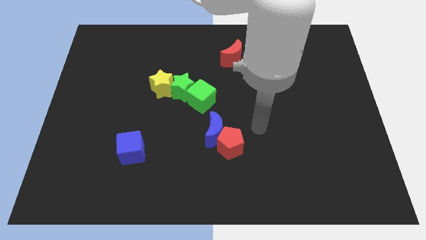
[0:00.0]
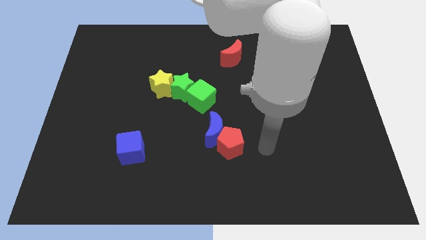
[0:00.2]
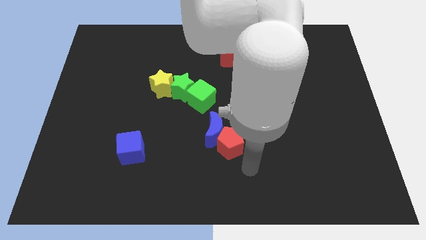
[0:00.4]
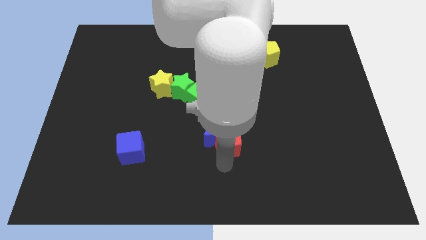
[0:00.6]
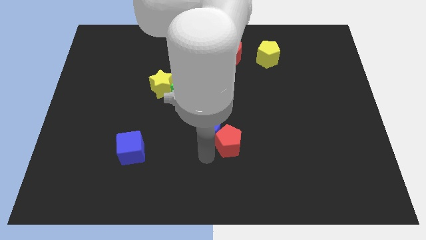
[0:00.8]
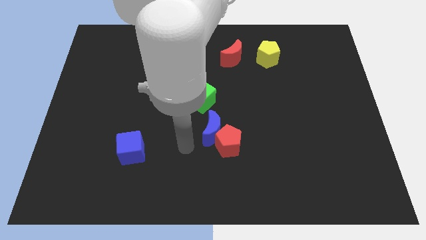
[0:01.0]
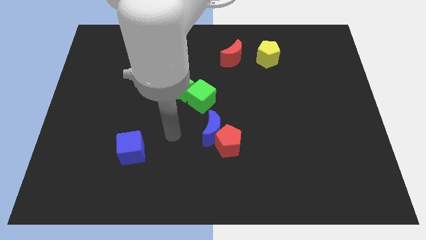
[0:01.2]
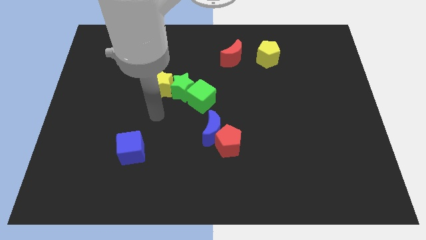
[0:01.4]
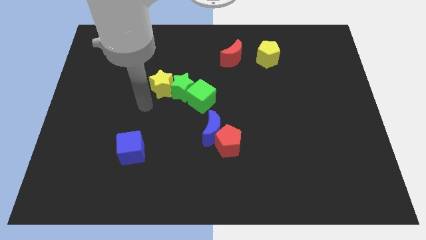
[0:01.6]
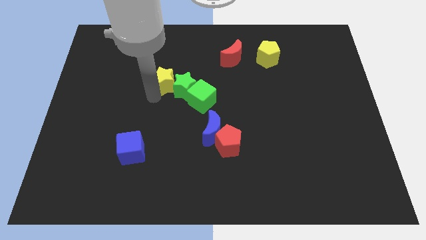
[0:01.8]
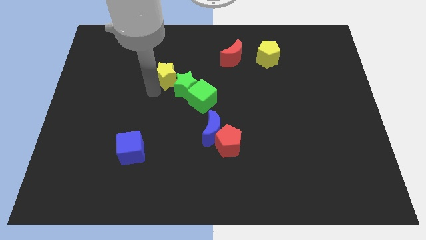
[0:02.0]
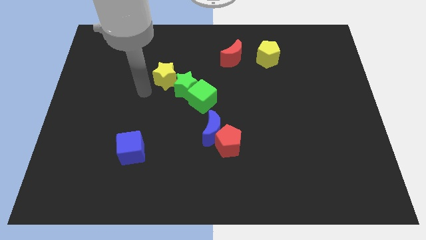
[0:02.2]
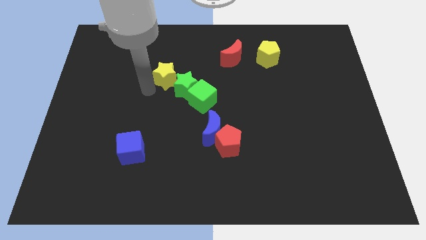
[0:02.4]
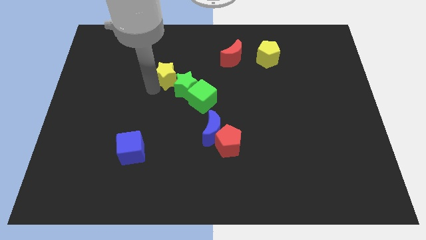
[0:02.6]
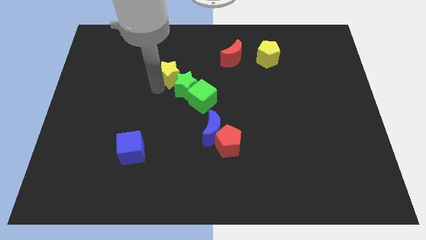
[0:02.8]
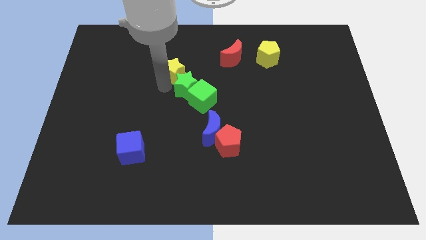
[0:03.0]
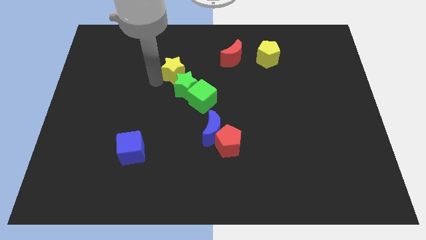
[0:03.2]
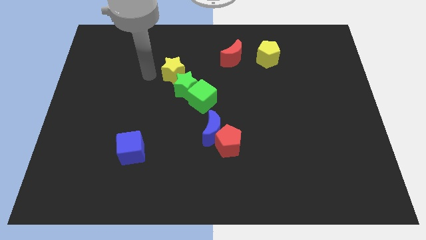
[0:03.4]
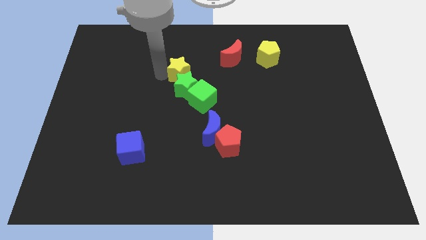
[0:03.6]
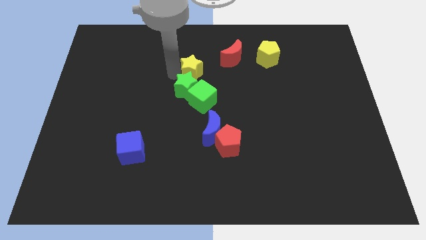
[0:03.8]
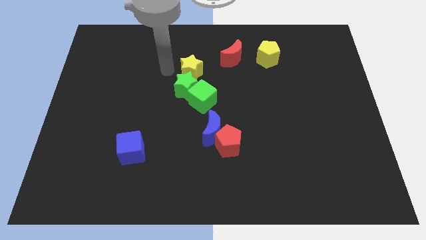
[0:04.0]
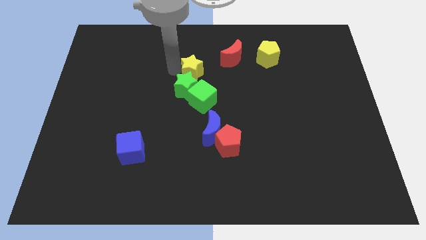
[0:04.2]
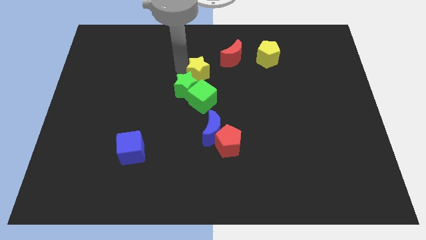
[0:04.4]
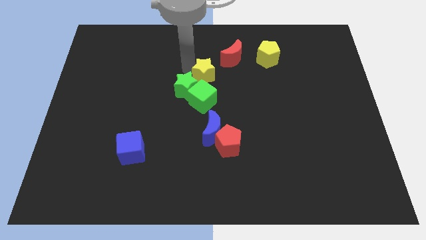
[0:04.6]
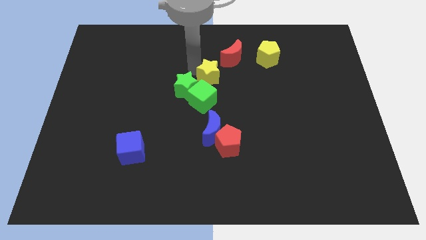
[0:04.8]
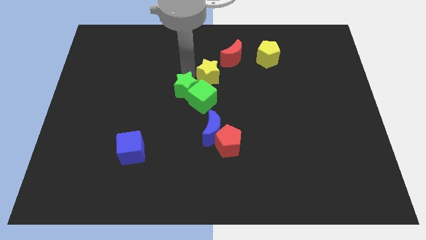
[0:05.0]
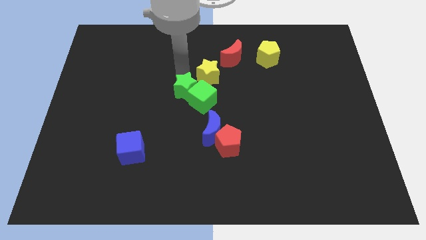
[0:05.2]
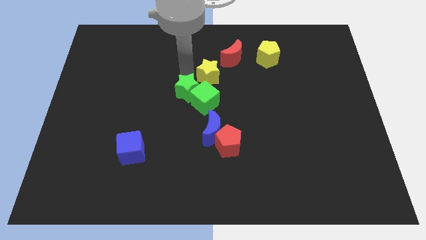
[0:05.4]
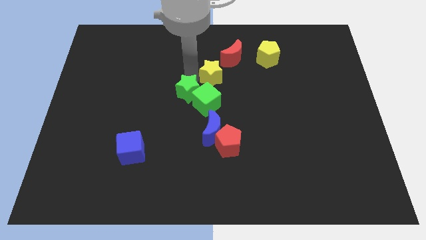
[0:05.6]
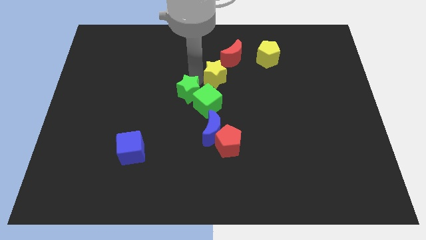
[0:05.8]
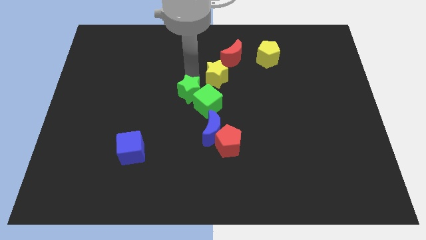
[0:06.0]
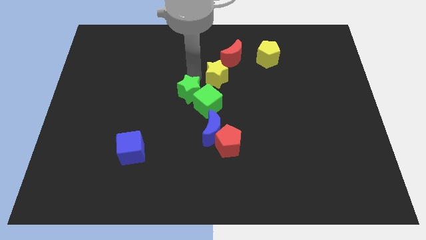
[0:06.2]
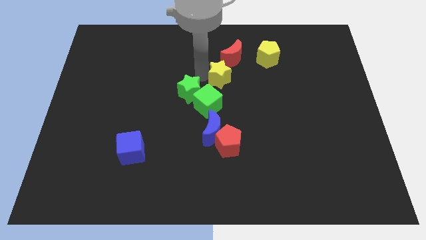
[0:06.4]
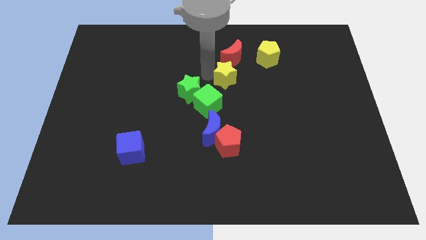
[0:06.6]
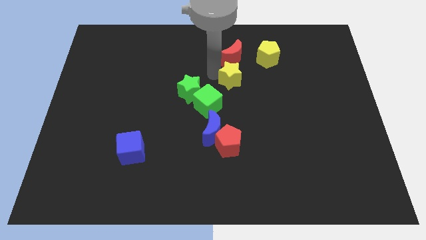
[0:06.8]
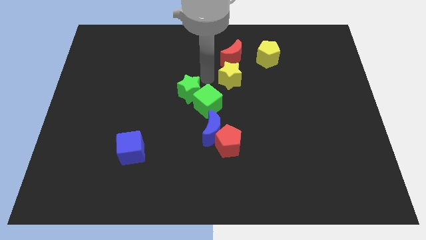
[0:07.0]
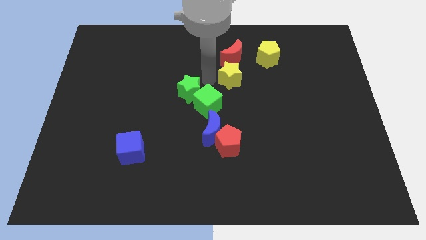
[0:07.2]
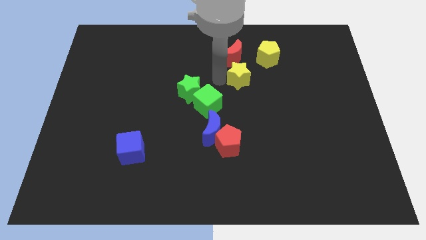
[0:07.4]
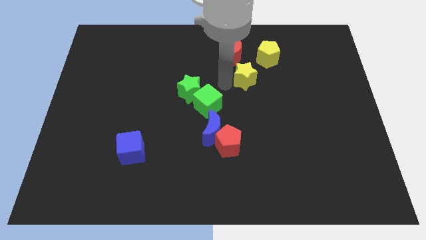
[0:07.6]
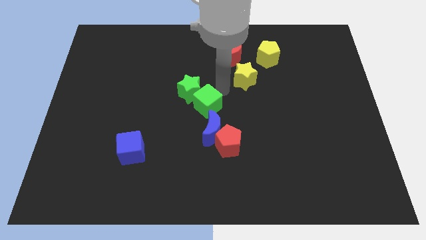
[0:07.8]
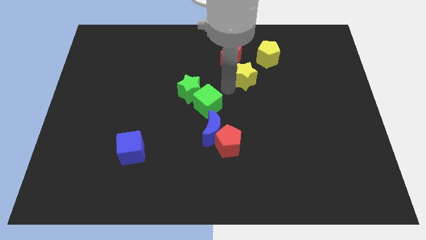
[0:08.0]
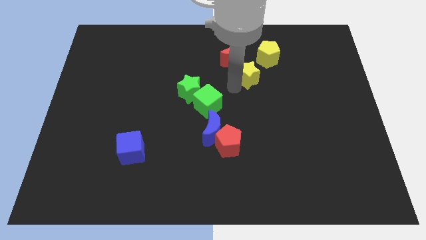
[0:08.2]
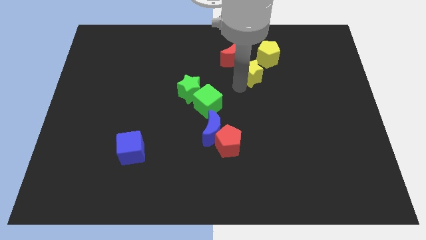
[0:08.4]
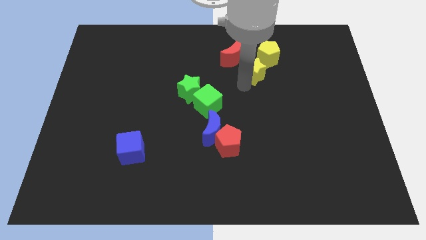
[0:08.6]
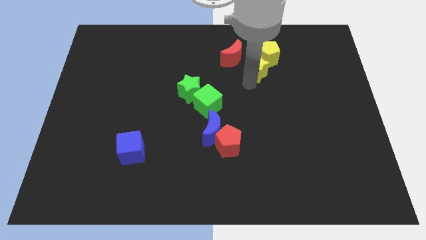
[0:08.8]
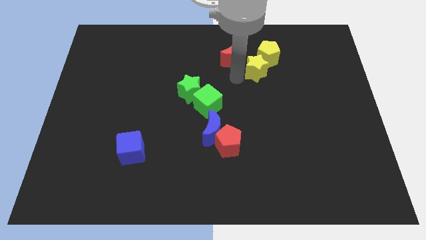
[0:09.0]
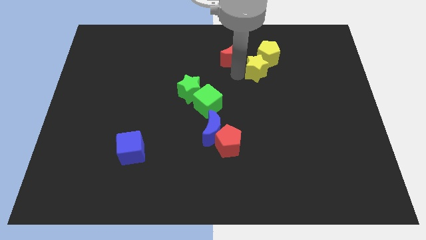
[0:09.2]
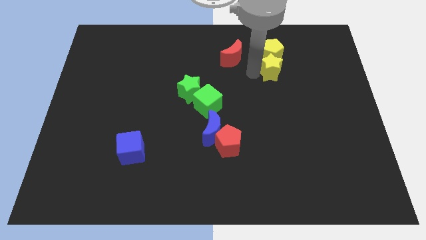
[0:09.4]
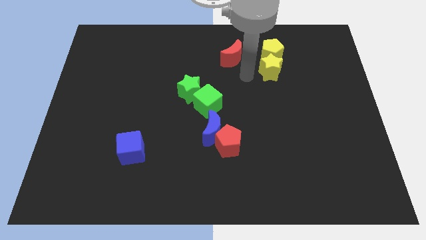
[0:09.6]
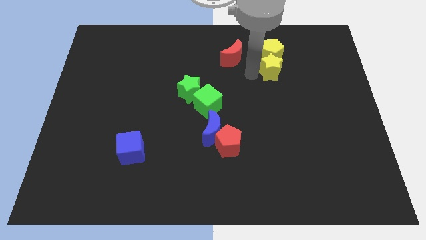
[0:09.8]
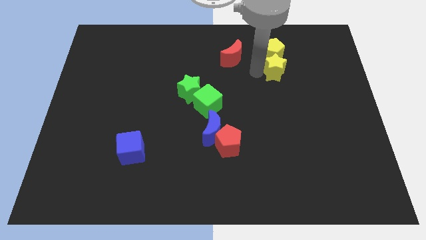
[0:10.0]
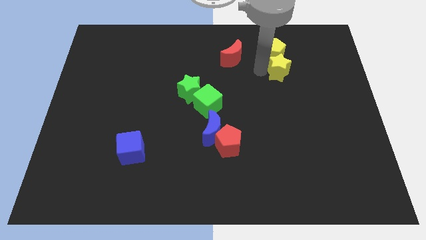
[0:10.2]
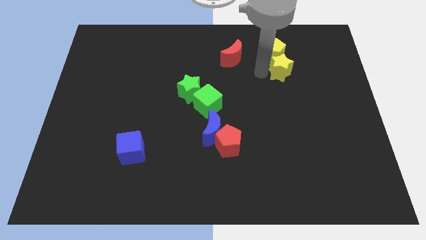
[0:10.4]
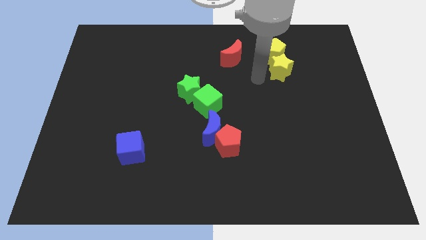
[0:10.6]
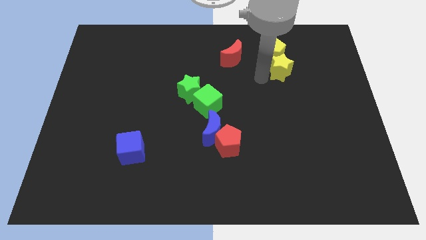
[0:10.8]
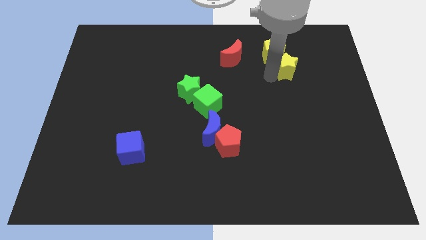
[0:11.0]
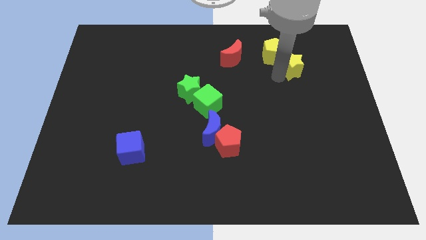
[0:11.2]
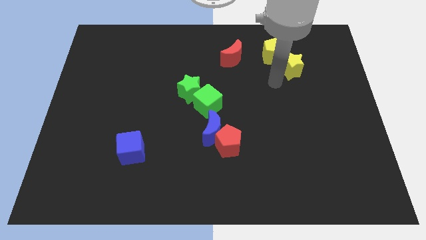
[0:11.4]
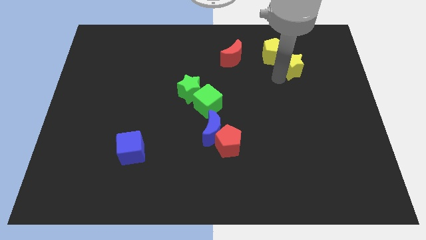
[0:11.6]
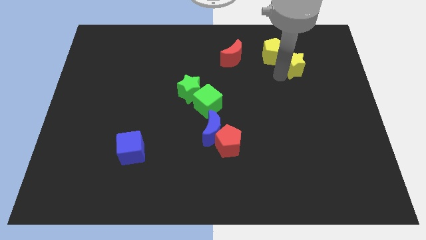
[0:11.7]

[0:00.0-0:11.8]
put the yellow star to the right side of the yellow pentagon

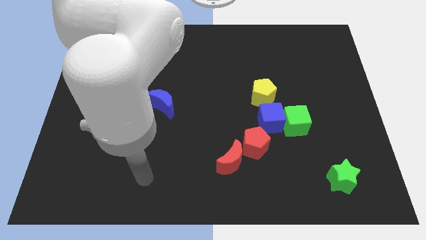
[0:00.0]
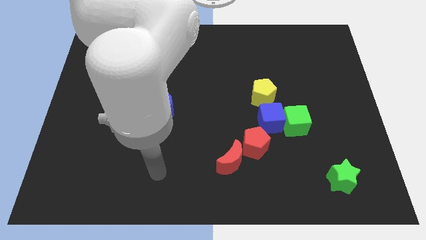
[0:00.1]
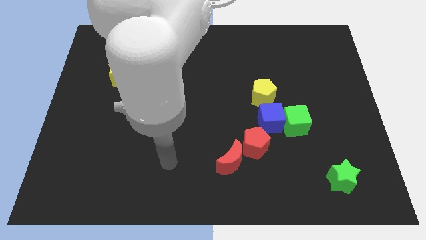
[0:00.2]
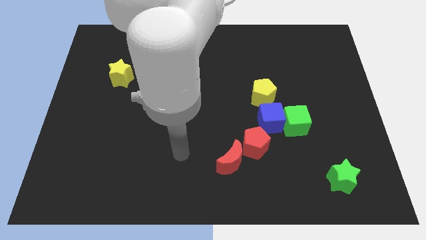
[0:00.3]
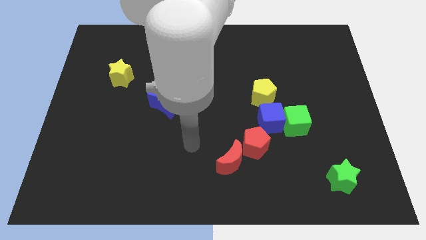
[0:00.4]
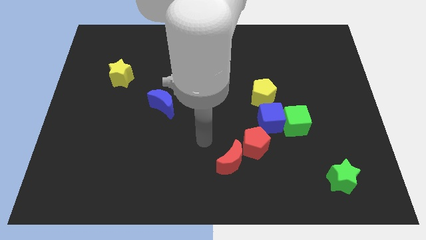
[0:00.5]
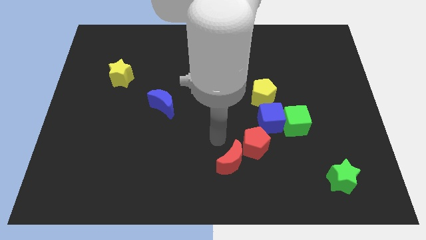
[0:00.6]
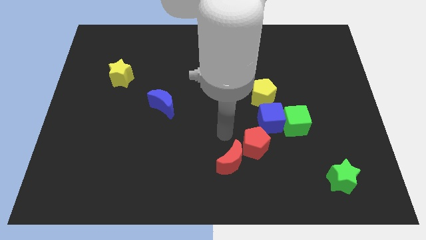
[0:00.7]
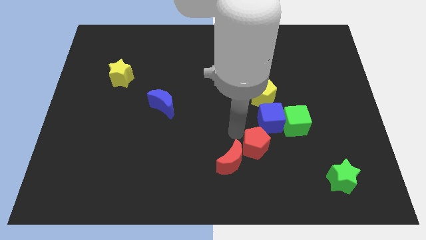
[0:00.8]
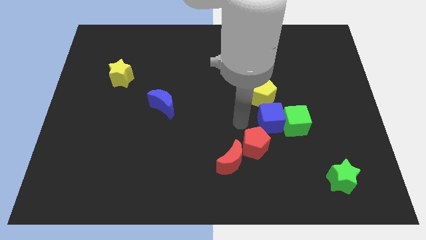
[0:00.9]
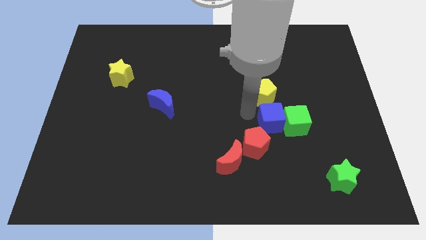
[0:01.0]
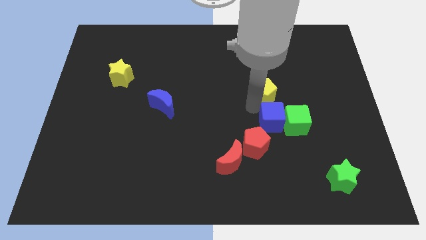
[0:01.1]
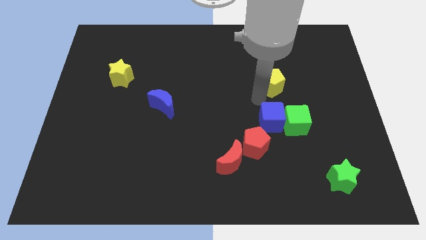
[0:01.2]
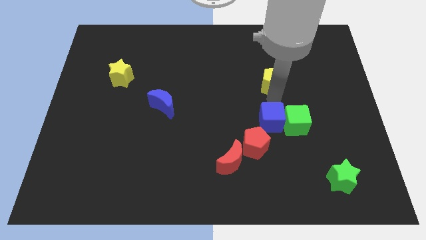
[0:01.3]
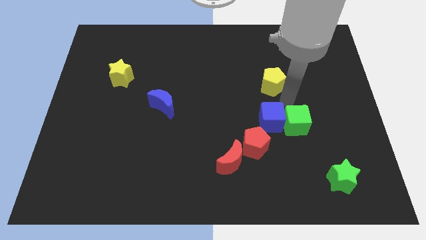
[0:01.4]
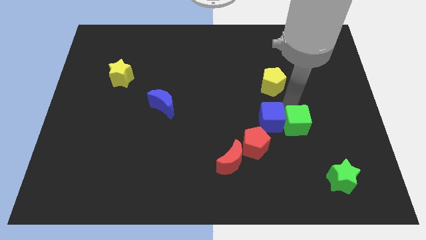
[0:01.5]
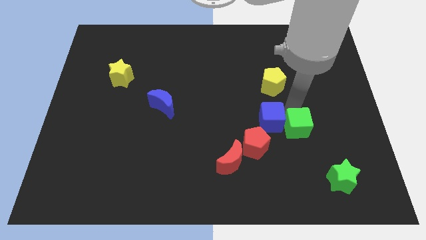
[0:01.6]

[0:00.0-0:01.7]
put the green cube to the right side of the red pentagon
